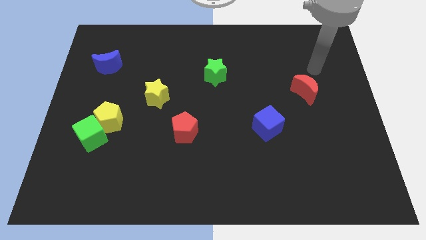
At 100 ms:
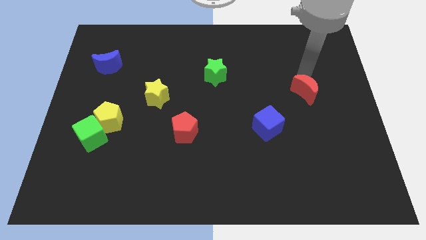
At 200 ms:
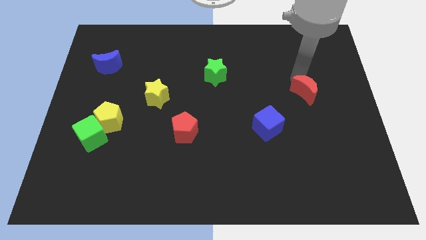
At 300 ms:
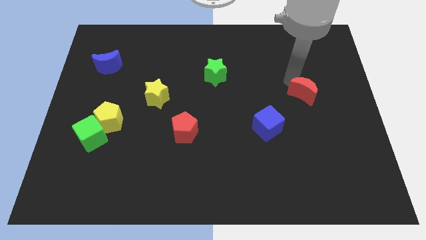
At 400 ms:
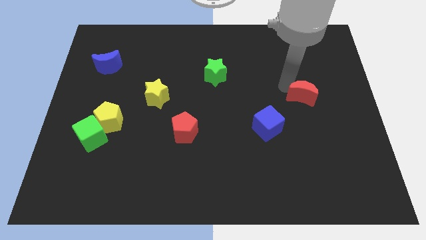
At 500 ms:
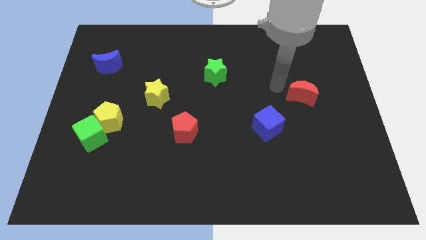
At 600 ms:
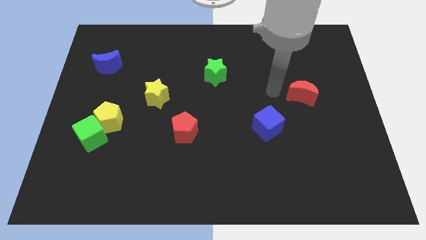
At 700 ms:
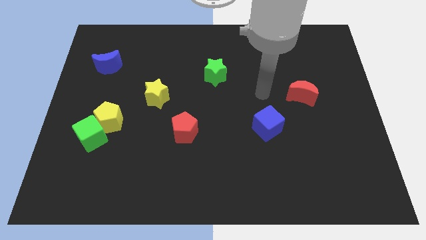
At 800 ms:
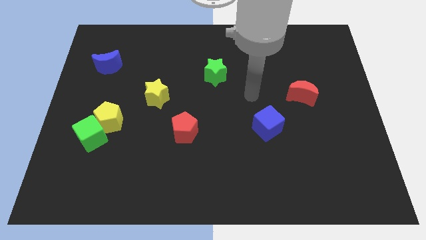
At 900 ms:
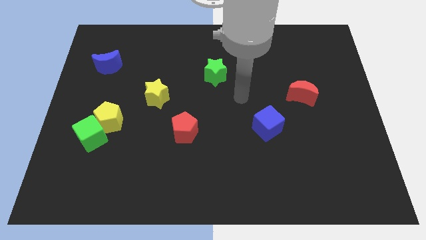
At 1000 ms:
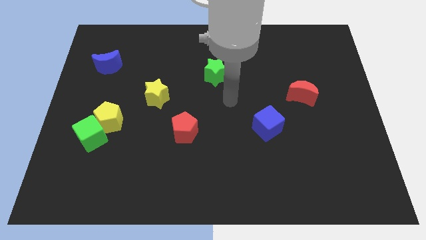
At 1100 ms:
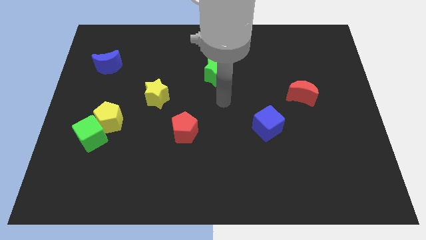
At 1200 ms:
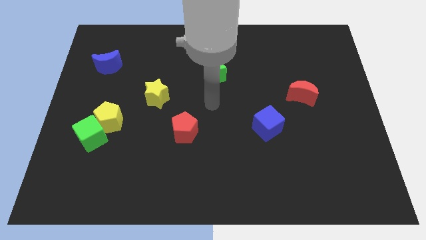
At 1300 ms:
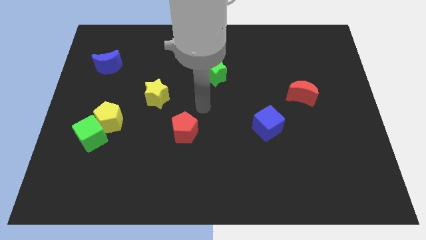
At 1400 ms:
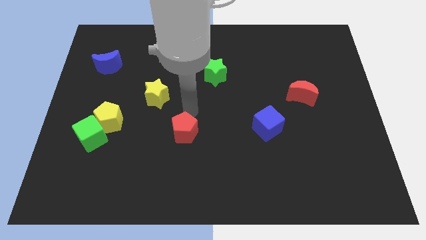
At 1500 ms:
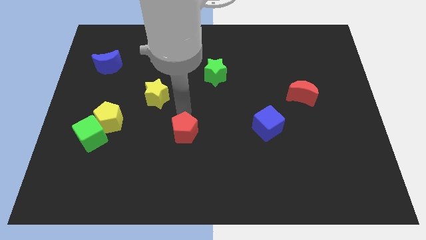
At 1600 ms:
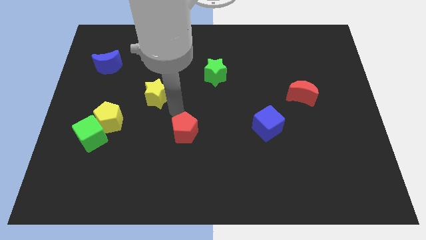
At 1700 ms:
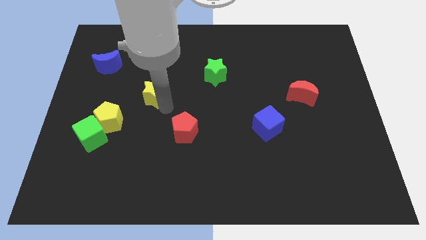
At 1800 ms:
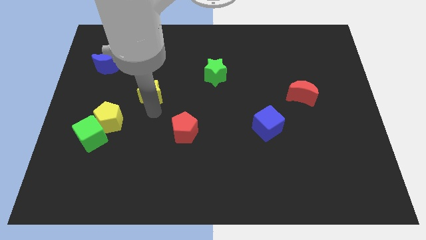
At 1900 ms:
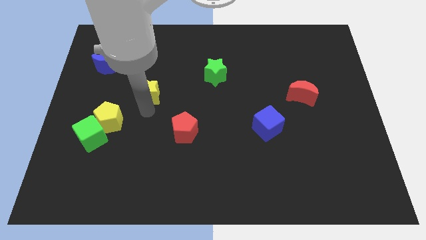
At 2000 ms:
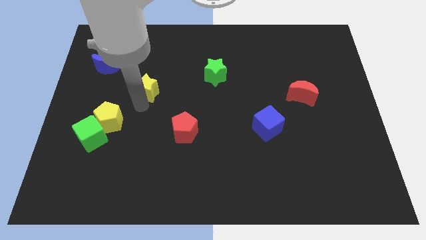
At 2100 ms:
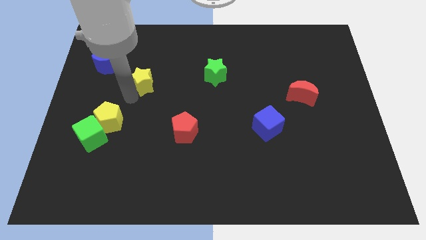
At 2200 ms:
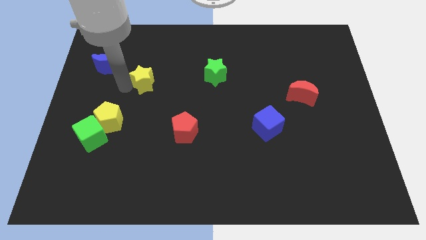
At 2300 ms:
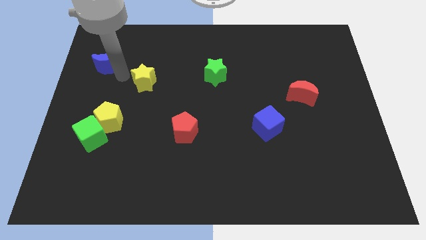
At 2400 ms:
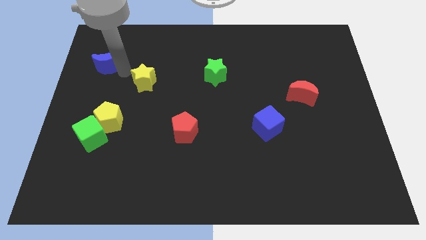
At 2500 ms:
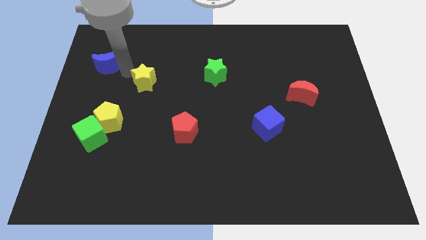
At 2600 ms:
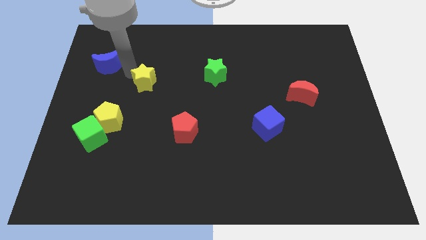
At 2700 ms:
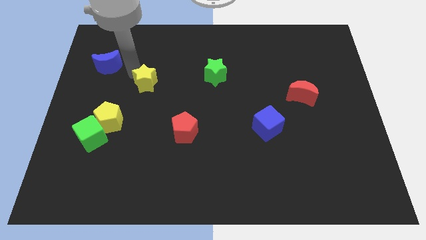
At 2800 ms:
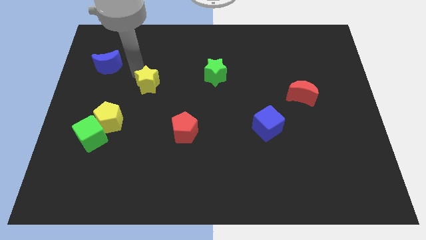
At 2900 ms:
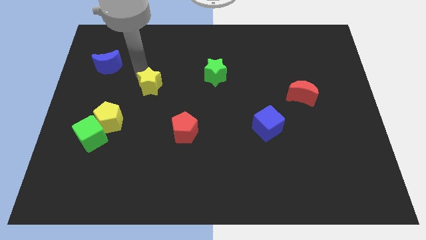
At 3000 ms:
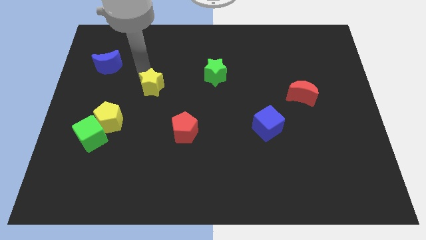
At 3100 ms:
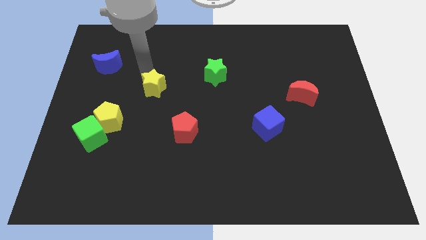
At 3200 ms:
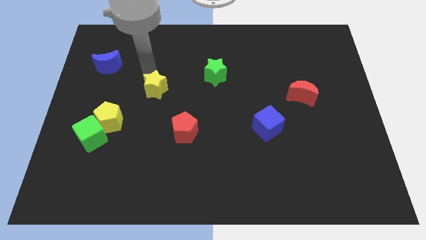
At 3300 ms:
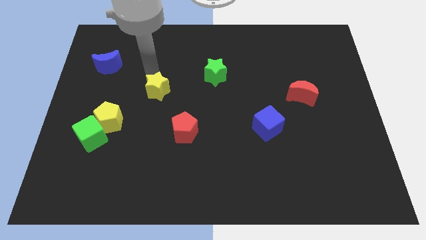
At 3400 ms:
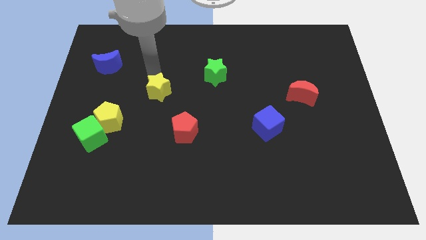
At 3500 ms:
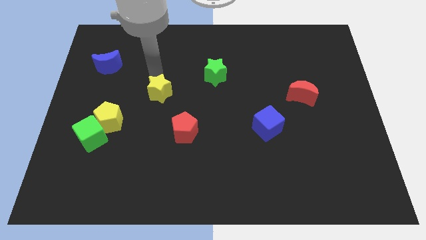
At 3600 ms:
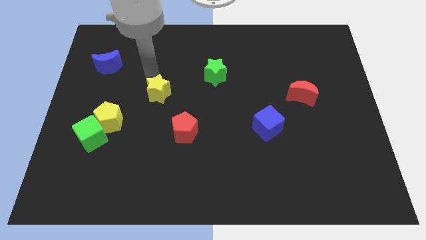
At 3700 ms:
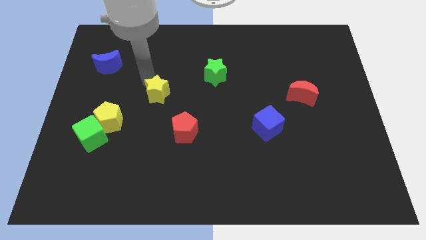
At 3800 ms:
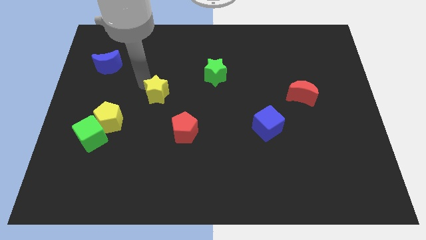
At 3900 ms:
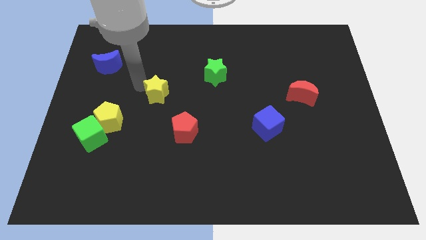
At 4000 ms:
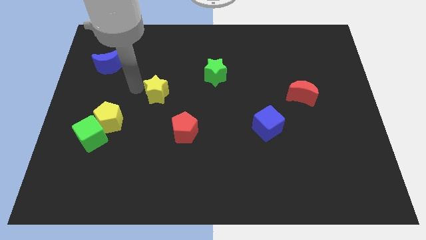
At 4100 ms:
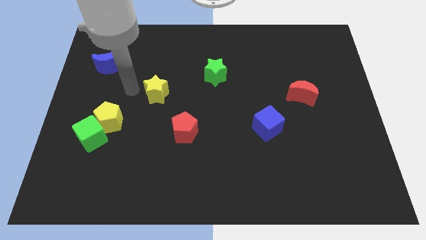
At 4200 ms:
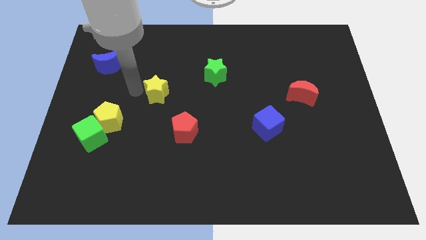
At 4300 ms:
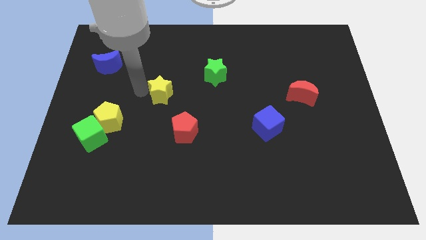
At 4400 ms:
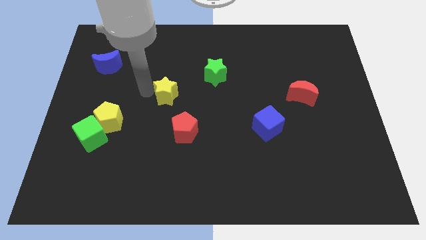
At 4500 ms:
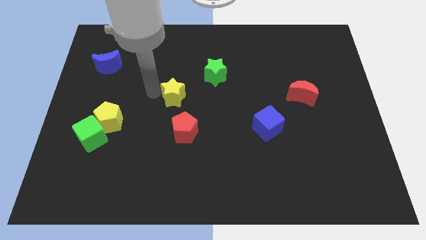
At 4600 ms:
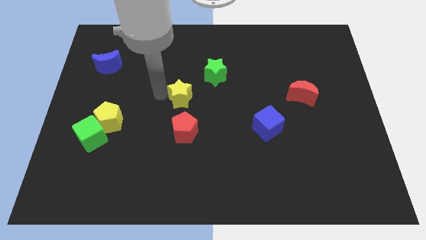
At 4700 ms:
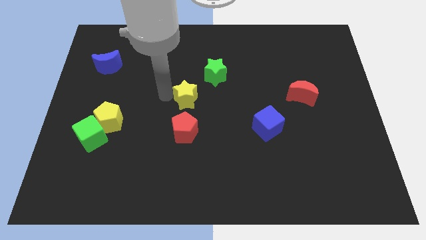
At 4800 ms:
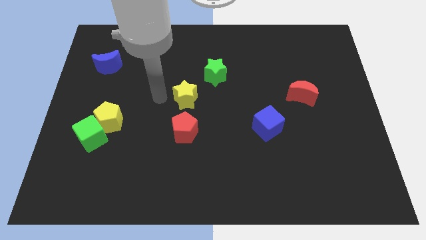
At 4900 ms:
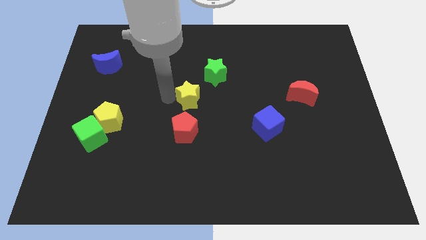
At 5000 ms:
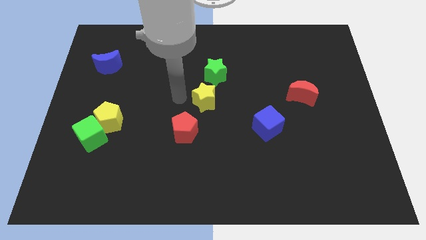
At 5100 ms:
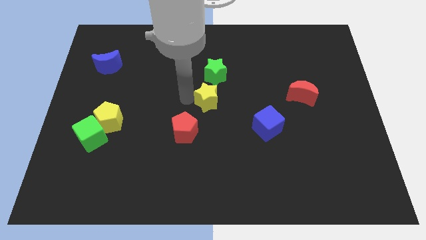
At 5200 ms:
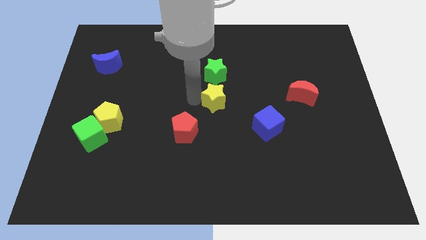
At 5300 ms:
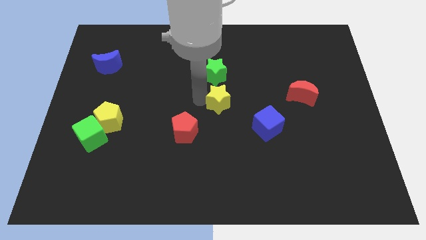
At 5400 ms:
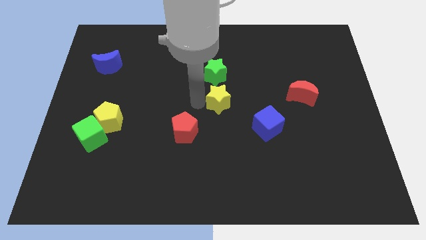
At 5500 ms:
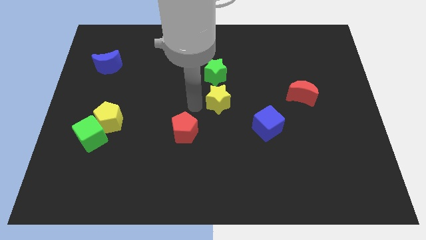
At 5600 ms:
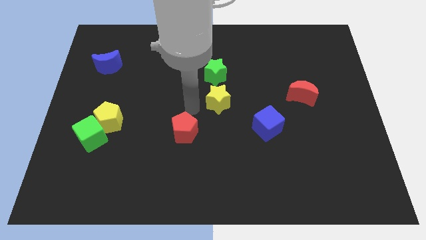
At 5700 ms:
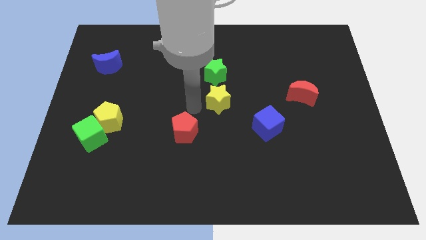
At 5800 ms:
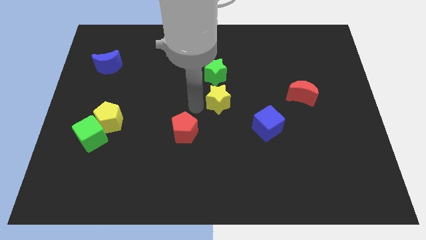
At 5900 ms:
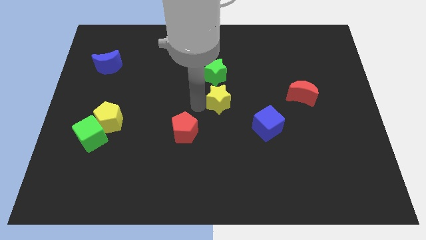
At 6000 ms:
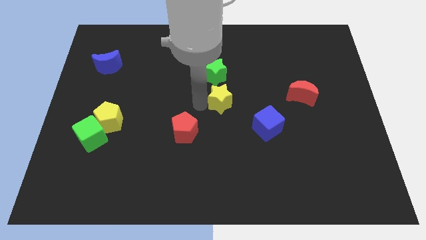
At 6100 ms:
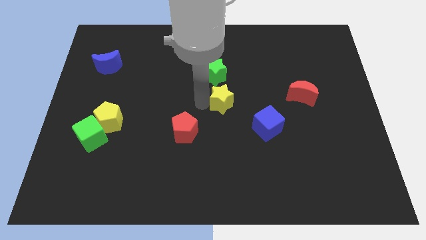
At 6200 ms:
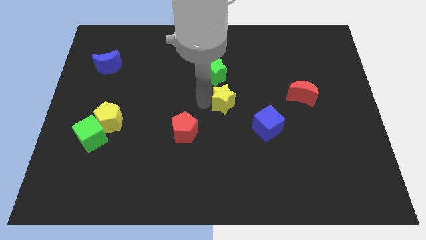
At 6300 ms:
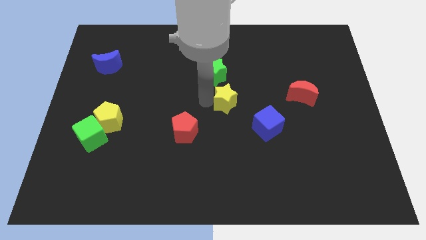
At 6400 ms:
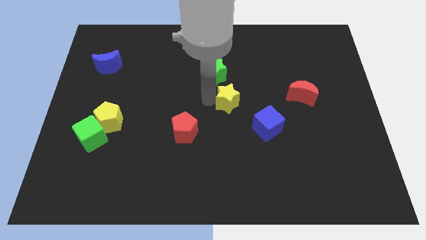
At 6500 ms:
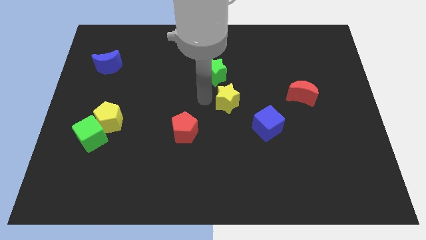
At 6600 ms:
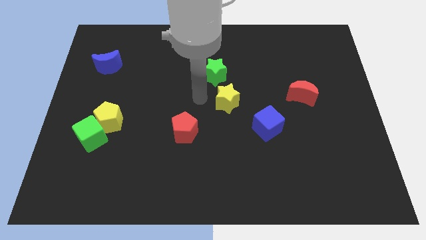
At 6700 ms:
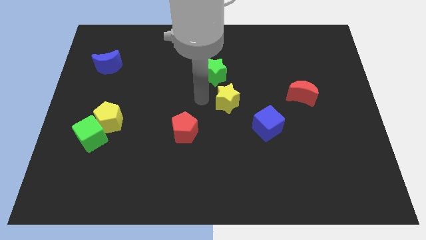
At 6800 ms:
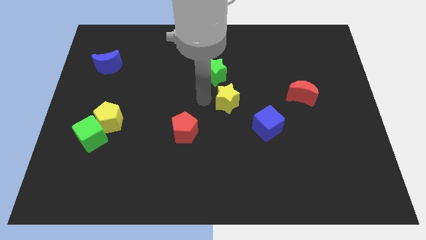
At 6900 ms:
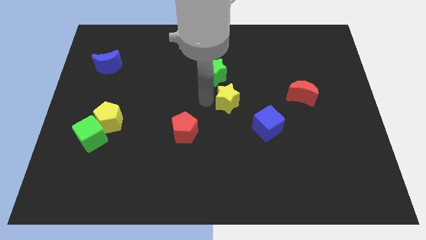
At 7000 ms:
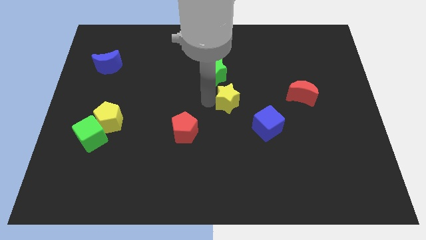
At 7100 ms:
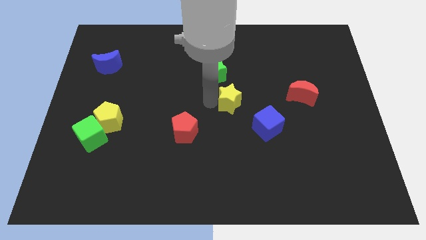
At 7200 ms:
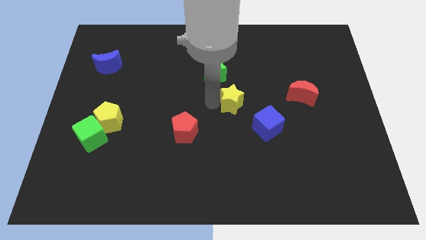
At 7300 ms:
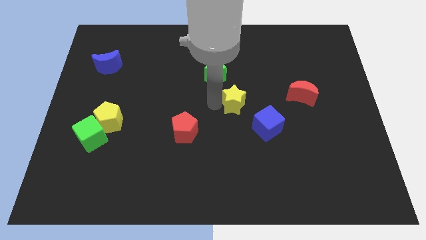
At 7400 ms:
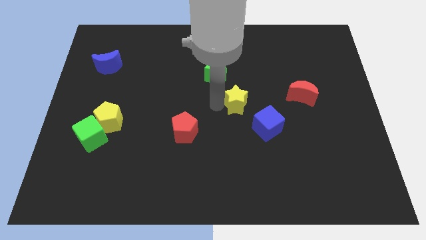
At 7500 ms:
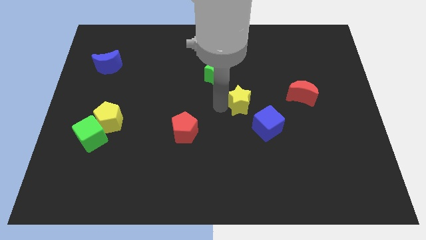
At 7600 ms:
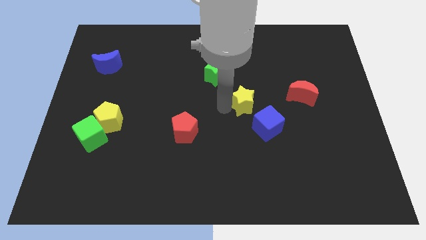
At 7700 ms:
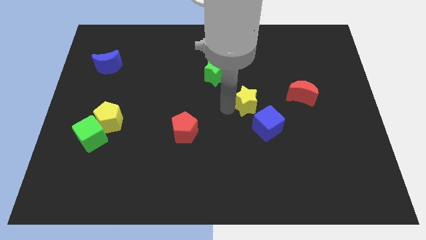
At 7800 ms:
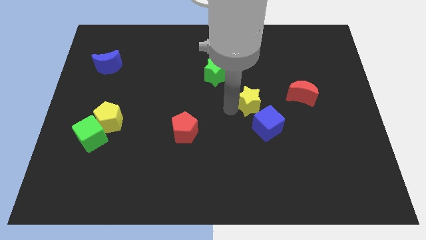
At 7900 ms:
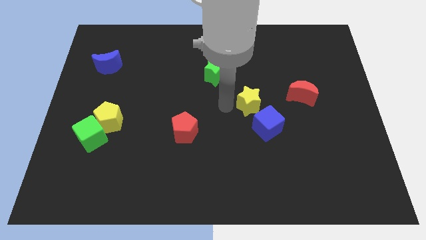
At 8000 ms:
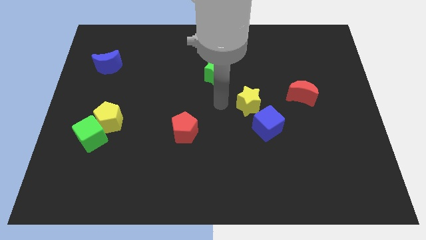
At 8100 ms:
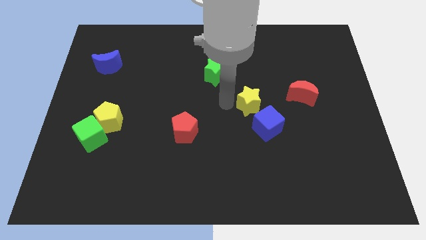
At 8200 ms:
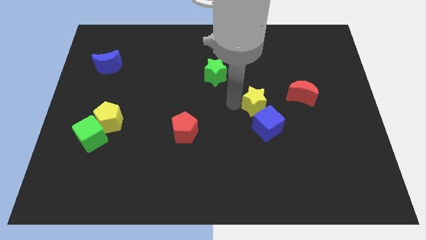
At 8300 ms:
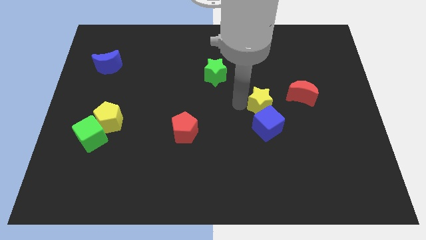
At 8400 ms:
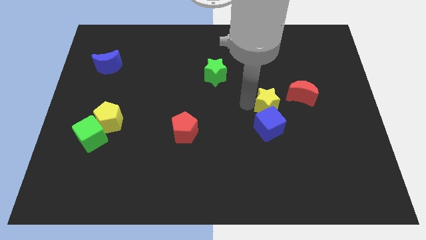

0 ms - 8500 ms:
slide the yellow star diagonally up and to the right of the blue cube
